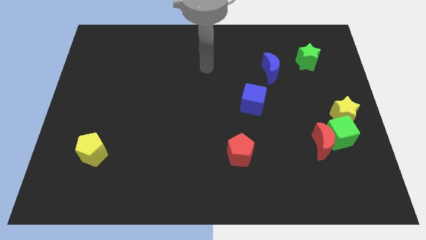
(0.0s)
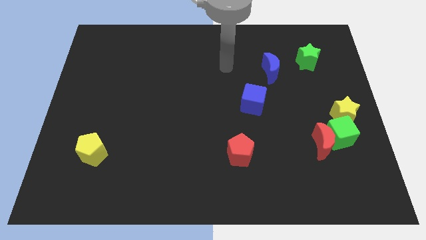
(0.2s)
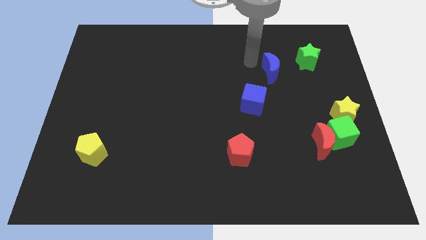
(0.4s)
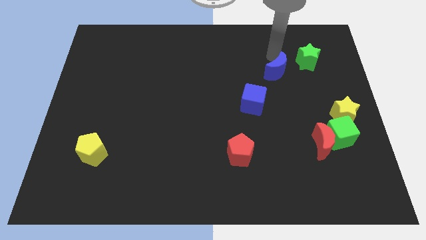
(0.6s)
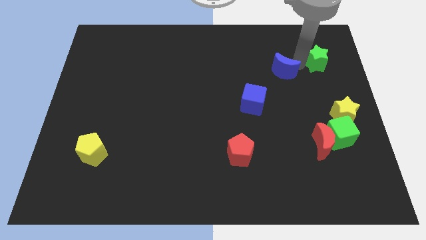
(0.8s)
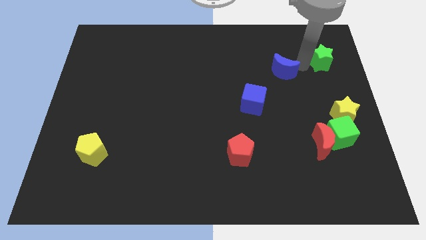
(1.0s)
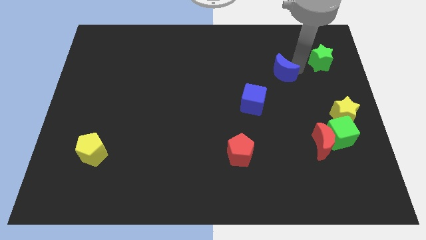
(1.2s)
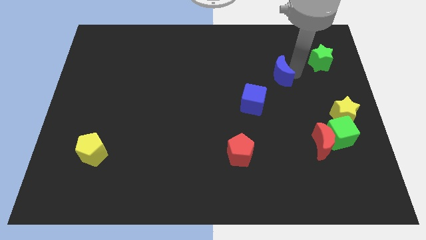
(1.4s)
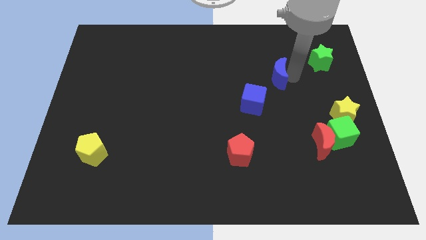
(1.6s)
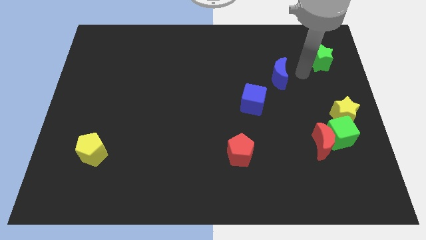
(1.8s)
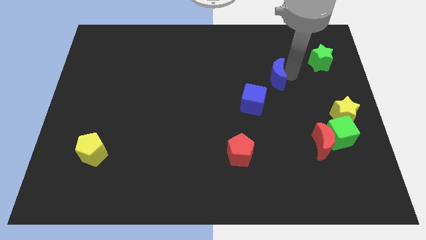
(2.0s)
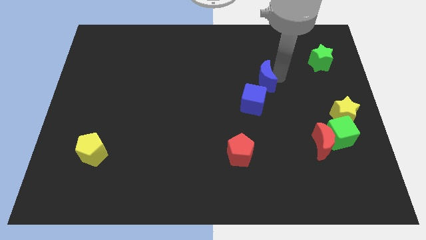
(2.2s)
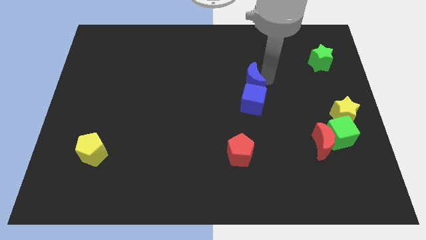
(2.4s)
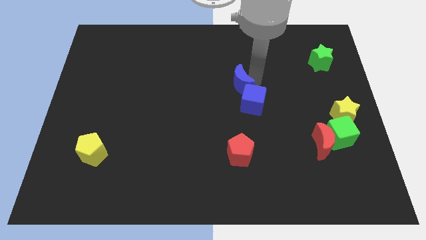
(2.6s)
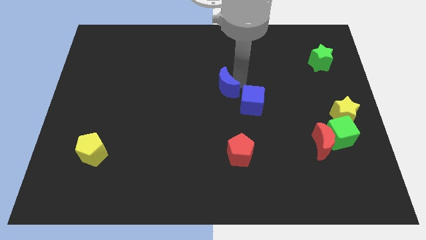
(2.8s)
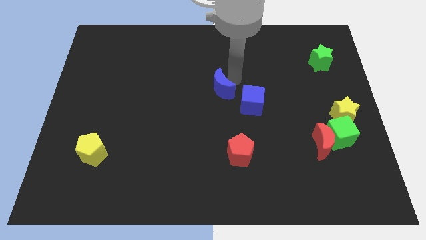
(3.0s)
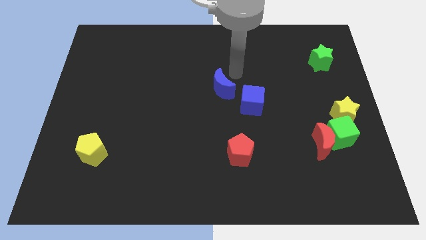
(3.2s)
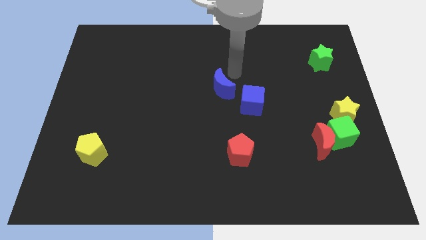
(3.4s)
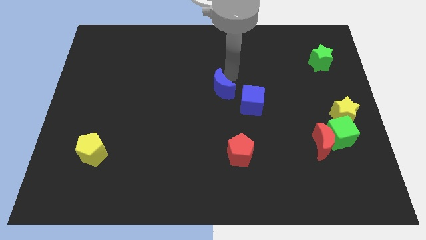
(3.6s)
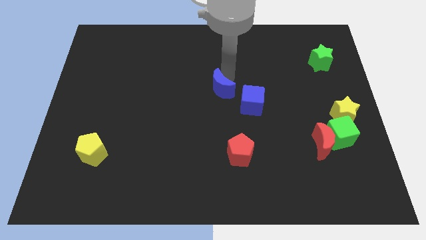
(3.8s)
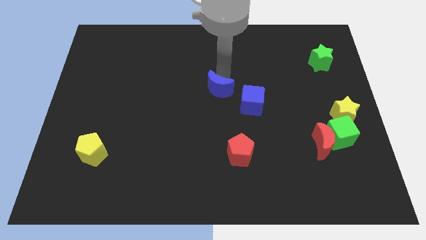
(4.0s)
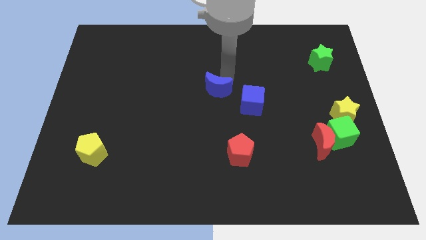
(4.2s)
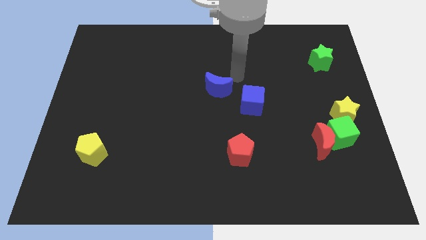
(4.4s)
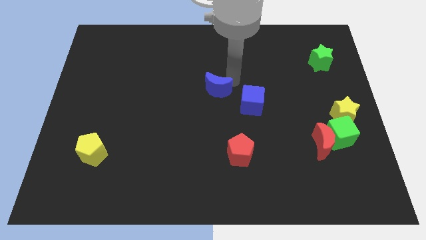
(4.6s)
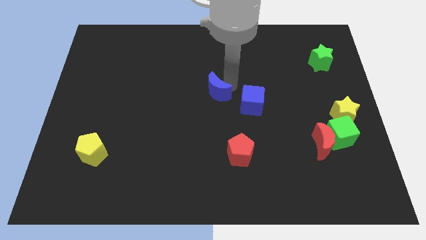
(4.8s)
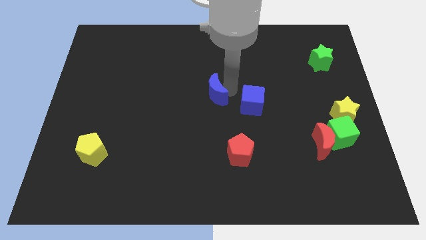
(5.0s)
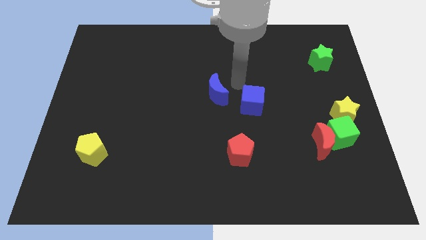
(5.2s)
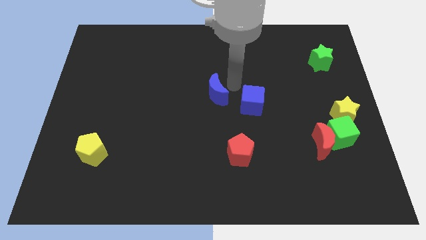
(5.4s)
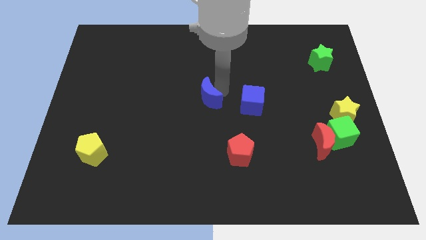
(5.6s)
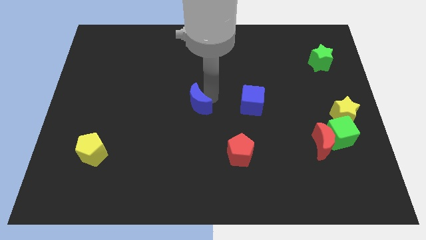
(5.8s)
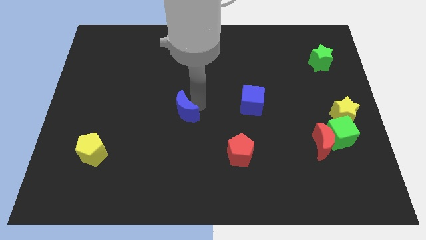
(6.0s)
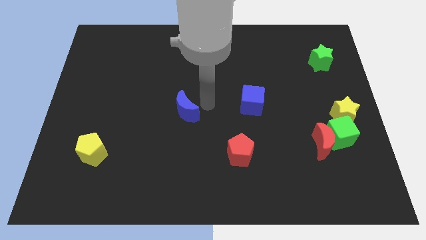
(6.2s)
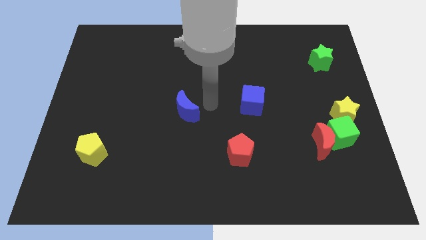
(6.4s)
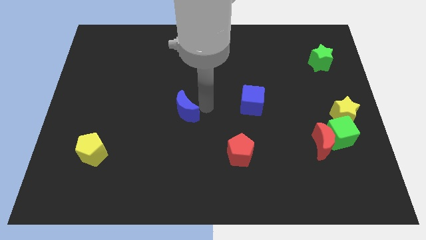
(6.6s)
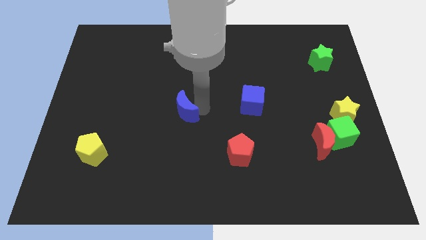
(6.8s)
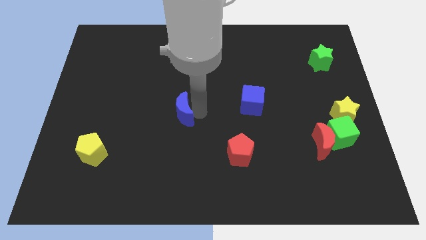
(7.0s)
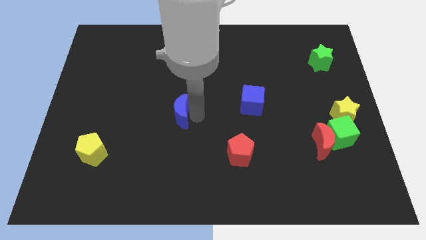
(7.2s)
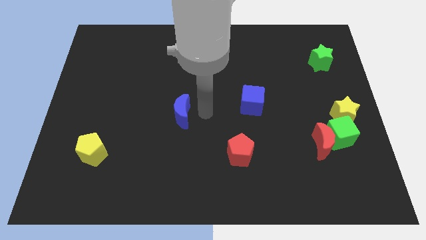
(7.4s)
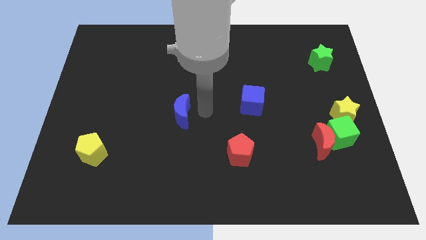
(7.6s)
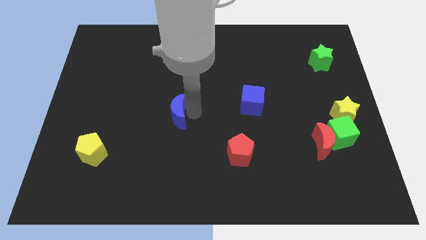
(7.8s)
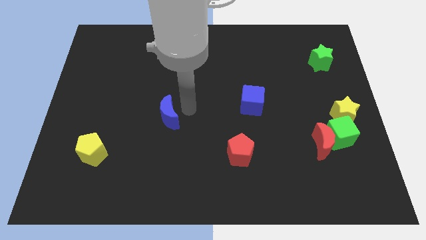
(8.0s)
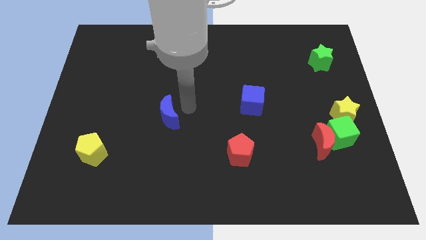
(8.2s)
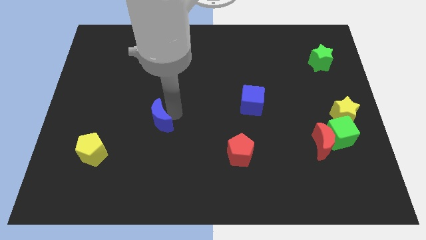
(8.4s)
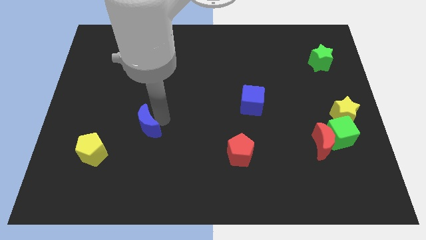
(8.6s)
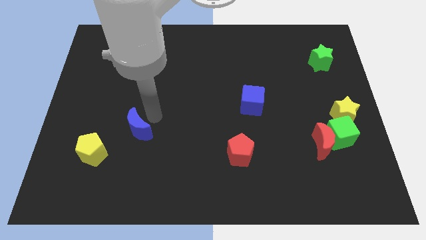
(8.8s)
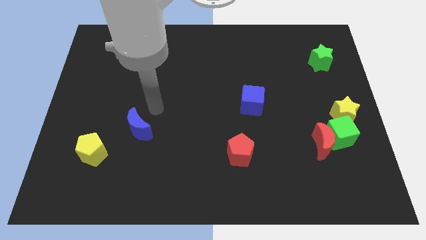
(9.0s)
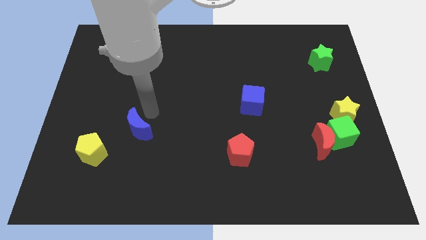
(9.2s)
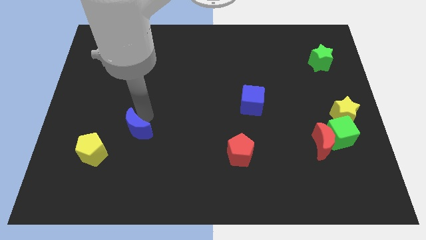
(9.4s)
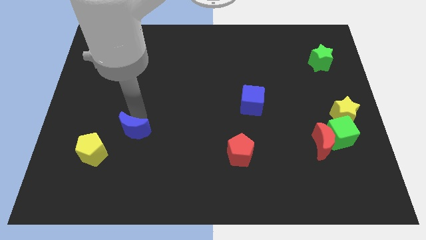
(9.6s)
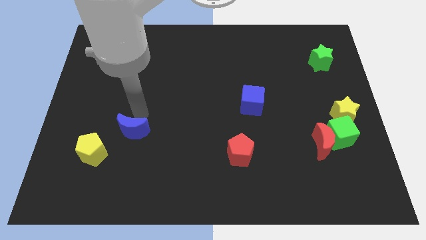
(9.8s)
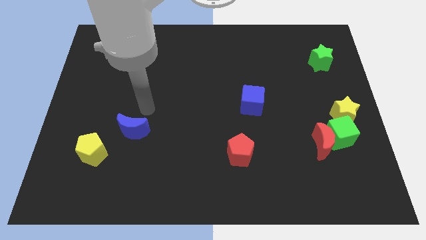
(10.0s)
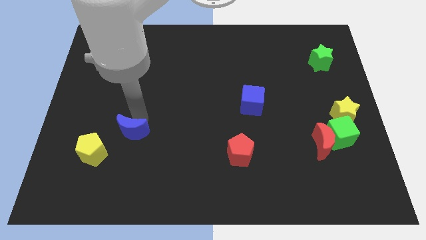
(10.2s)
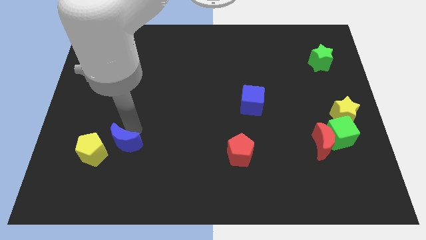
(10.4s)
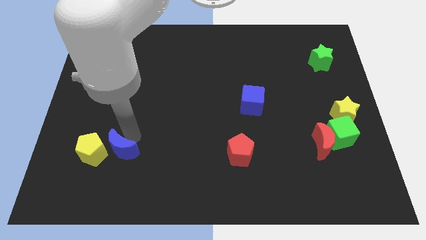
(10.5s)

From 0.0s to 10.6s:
slide the blue moon towards the yellow pentagon

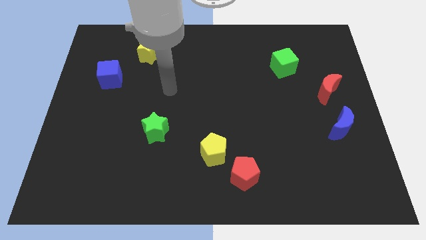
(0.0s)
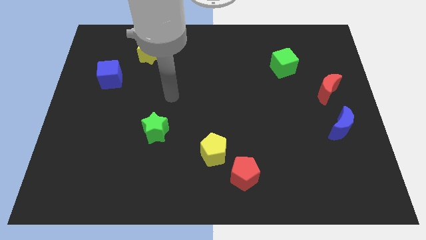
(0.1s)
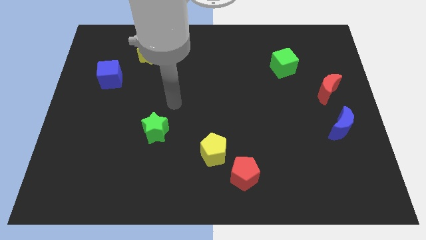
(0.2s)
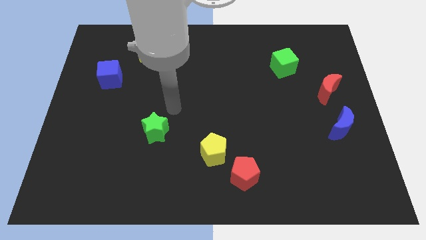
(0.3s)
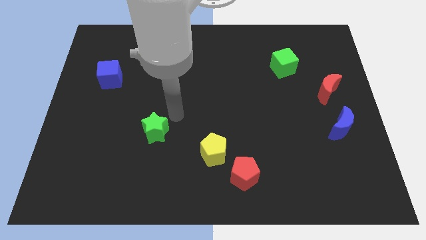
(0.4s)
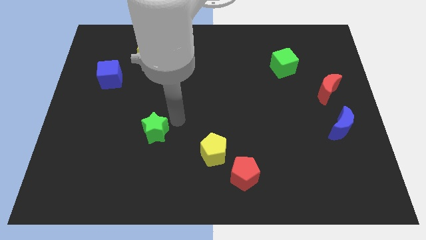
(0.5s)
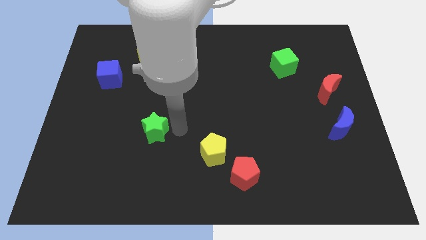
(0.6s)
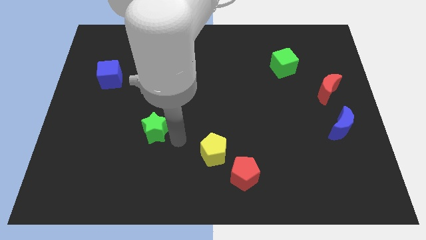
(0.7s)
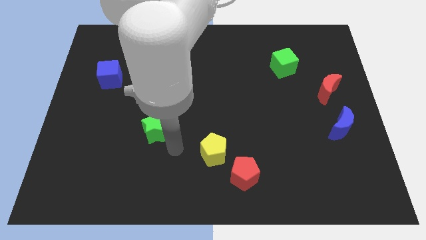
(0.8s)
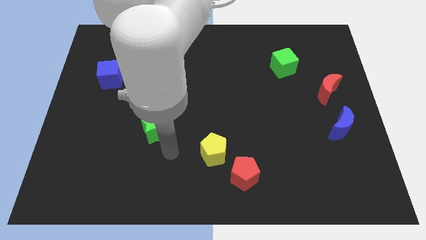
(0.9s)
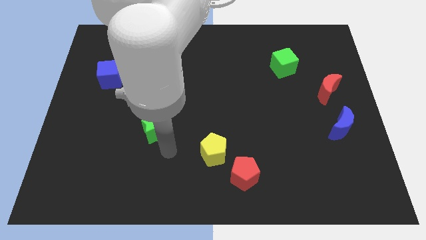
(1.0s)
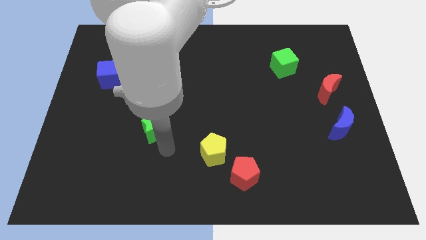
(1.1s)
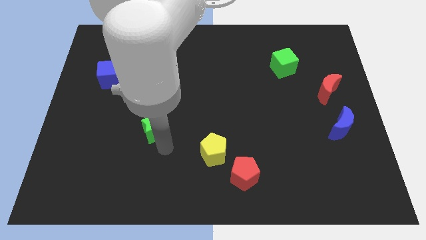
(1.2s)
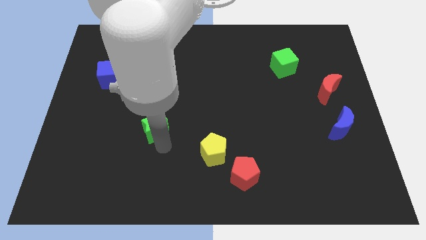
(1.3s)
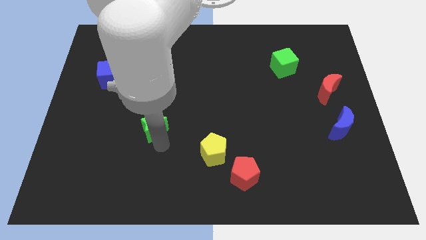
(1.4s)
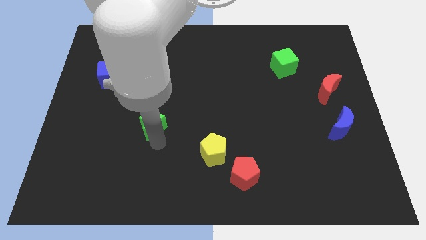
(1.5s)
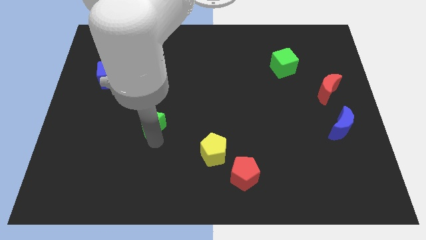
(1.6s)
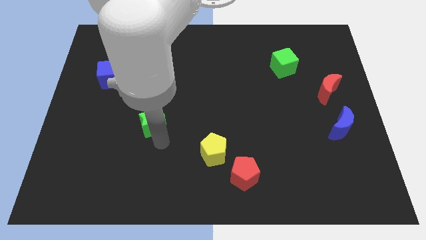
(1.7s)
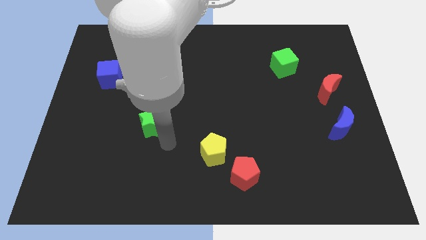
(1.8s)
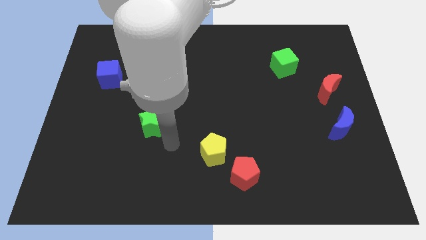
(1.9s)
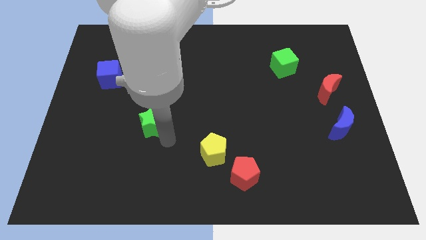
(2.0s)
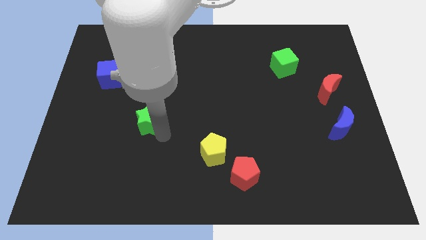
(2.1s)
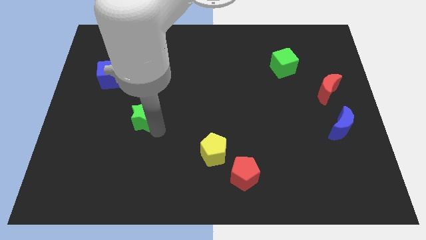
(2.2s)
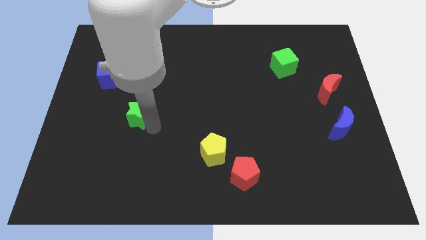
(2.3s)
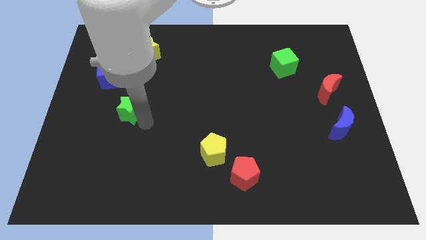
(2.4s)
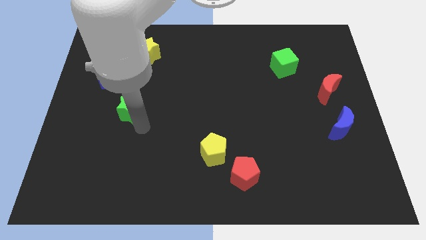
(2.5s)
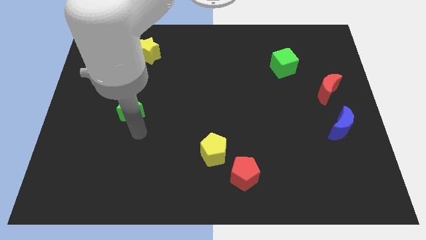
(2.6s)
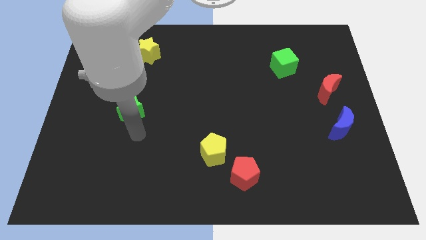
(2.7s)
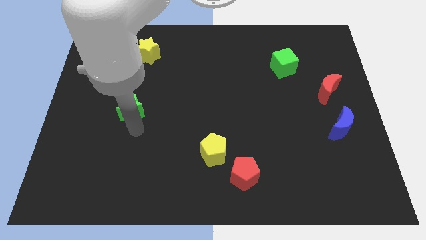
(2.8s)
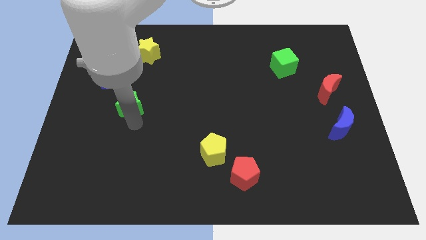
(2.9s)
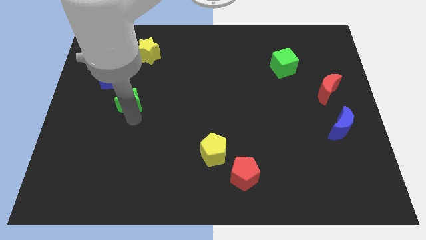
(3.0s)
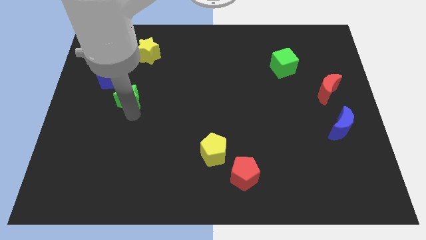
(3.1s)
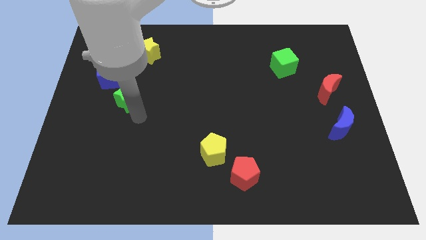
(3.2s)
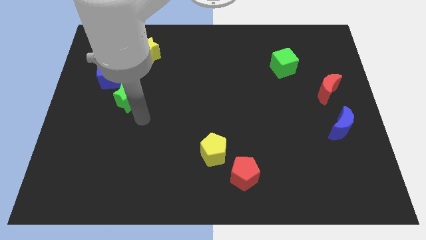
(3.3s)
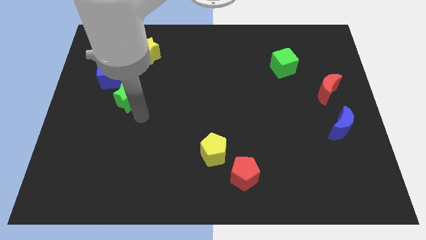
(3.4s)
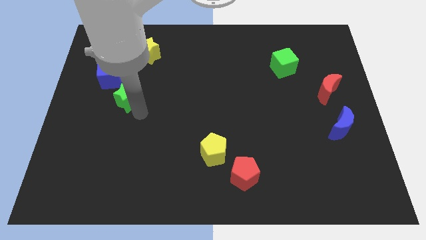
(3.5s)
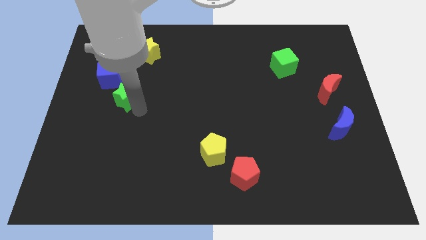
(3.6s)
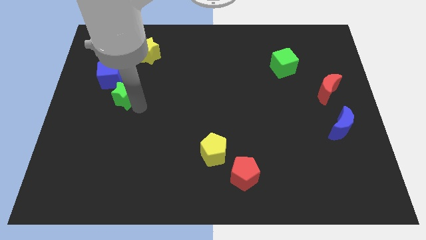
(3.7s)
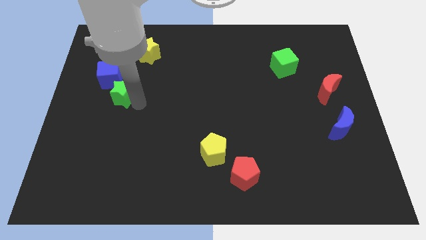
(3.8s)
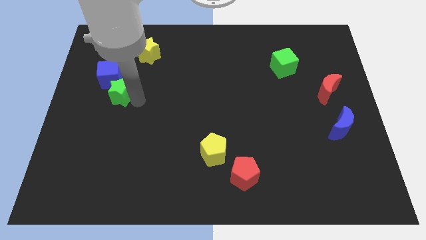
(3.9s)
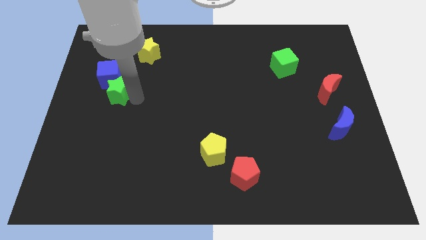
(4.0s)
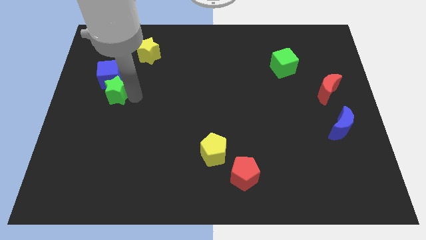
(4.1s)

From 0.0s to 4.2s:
move the green star close to the blue cube
